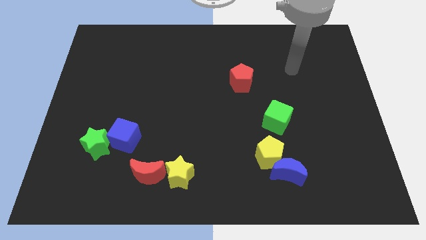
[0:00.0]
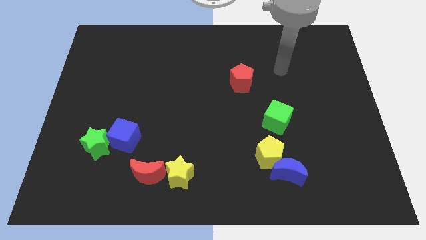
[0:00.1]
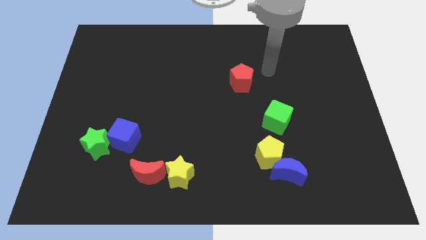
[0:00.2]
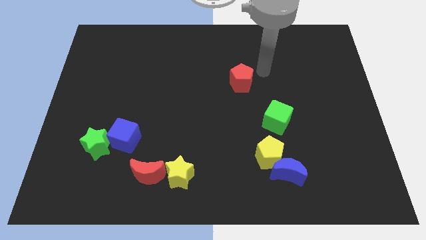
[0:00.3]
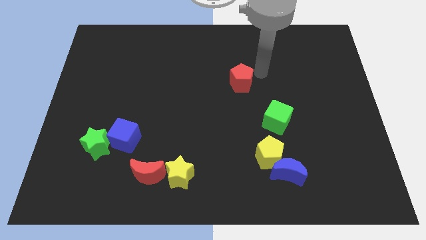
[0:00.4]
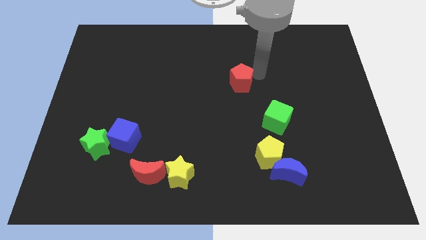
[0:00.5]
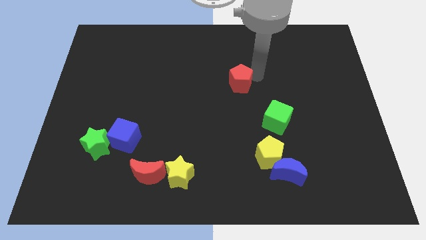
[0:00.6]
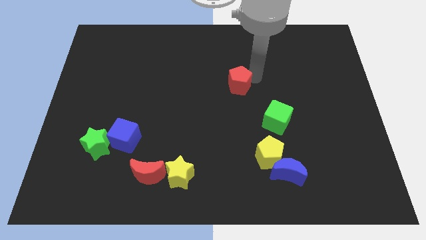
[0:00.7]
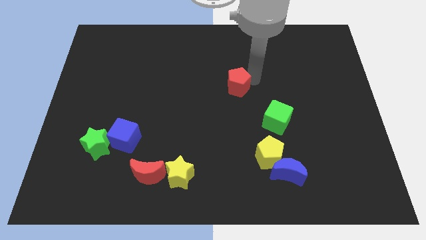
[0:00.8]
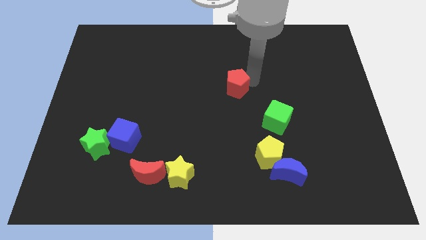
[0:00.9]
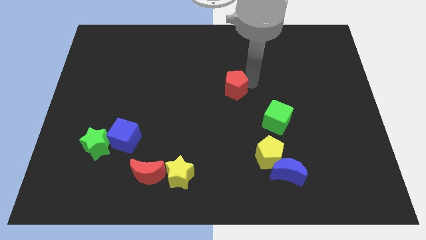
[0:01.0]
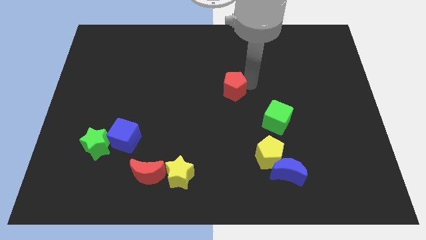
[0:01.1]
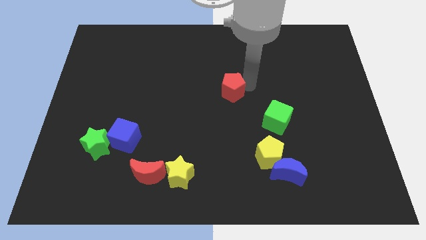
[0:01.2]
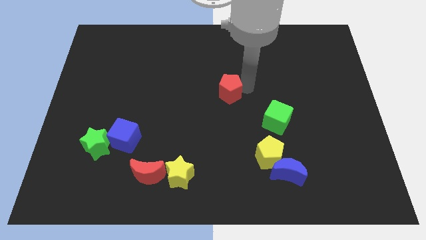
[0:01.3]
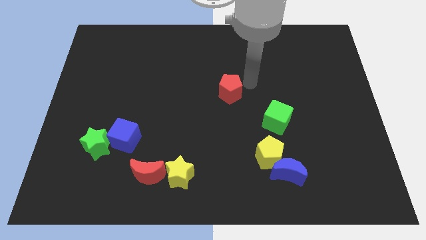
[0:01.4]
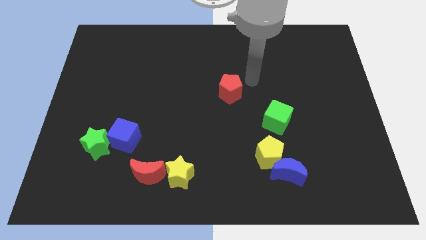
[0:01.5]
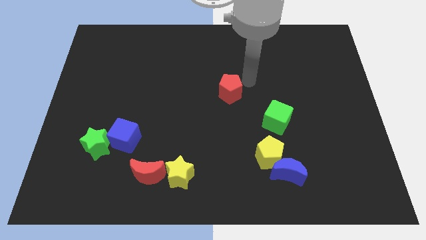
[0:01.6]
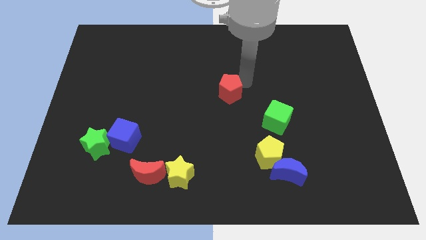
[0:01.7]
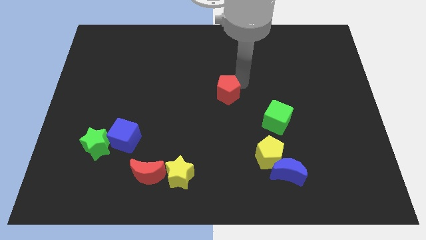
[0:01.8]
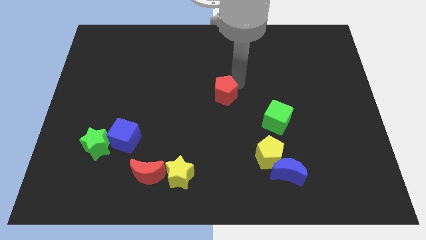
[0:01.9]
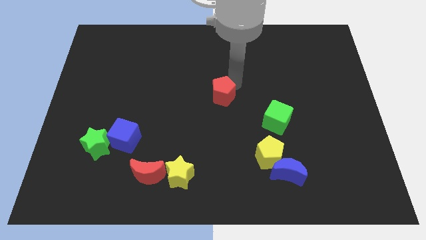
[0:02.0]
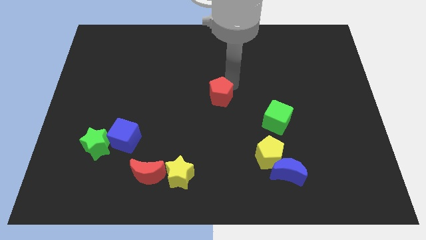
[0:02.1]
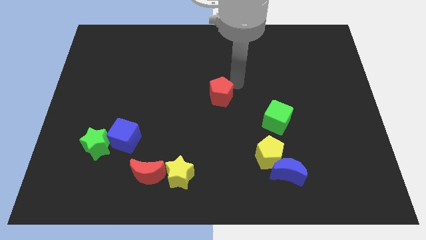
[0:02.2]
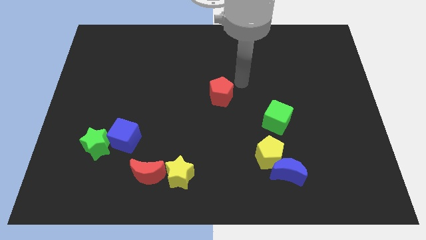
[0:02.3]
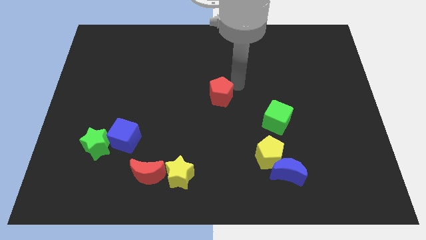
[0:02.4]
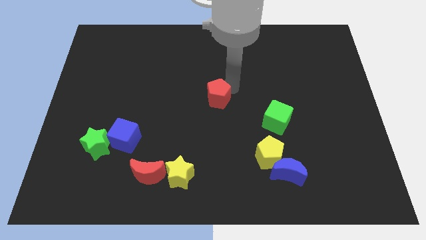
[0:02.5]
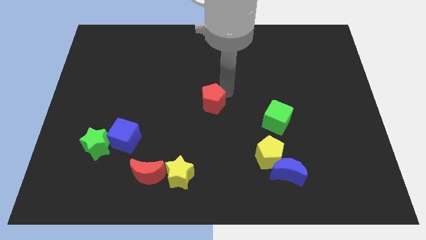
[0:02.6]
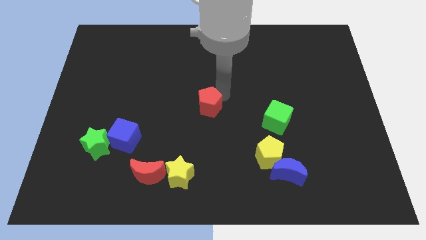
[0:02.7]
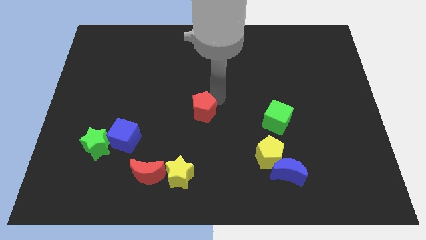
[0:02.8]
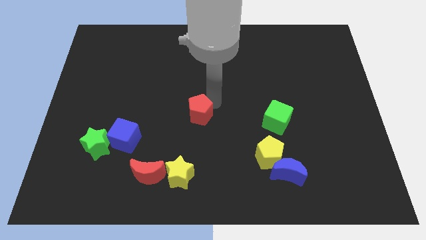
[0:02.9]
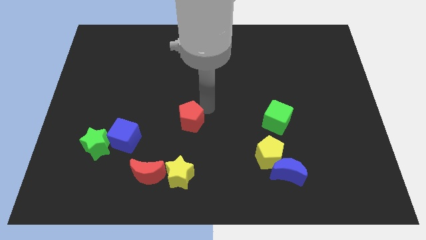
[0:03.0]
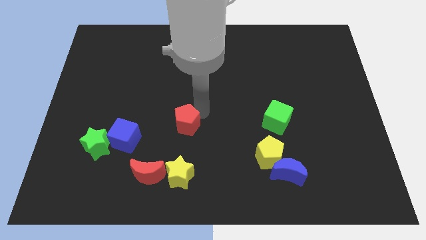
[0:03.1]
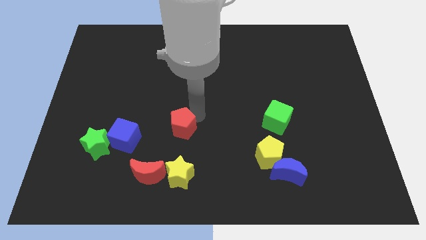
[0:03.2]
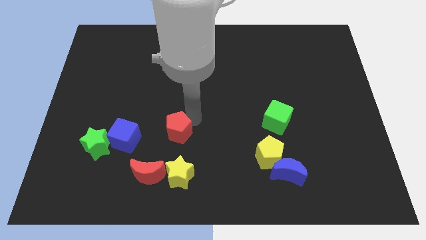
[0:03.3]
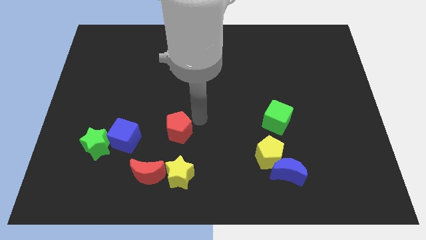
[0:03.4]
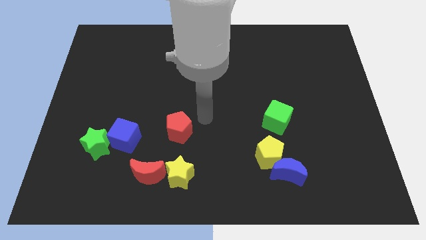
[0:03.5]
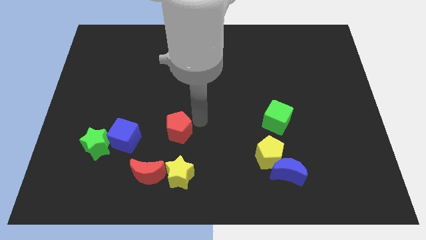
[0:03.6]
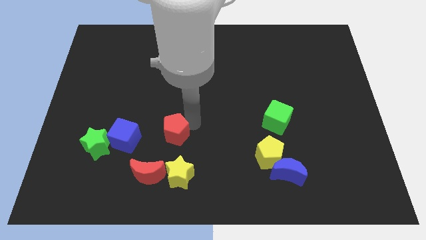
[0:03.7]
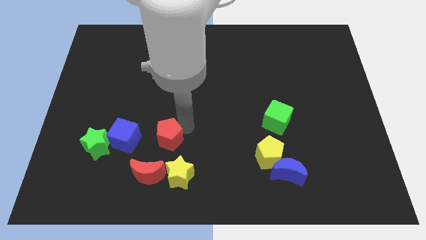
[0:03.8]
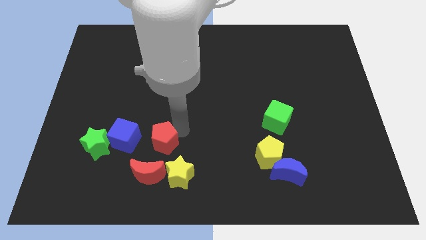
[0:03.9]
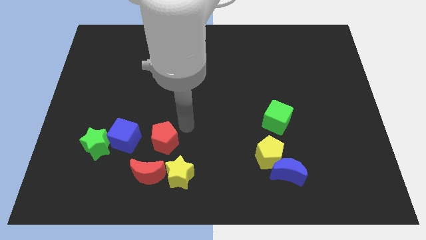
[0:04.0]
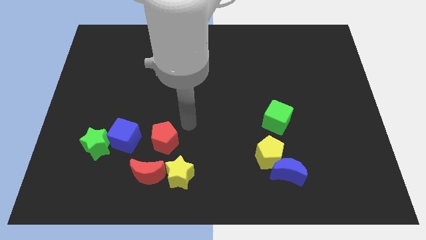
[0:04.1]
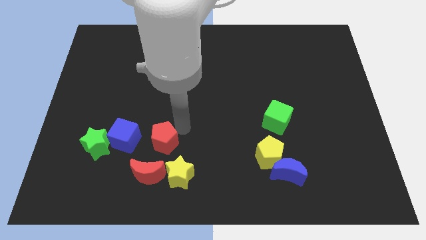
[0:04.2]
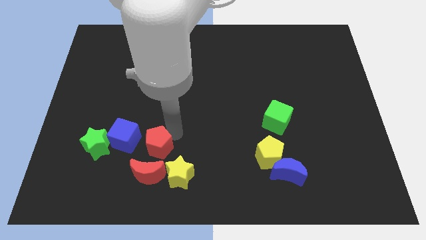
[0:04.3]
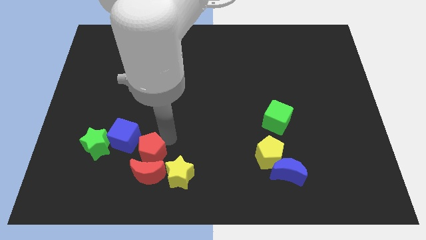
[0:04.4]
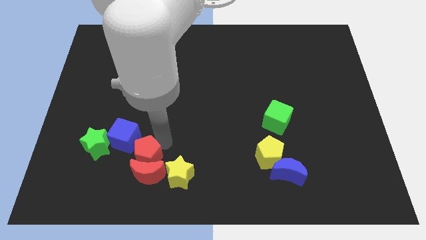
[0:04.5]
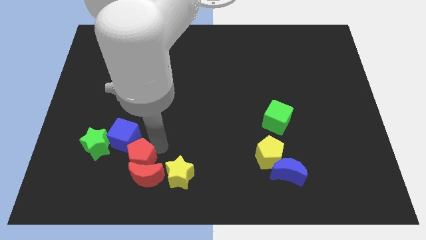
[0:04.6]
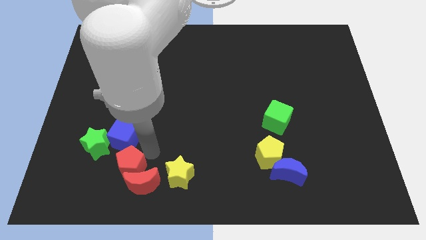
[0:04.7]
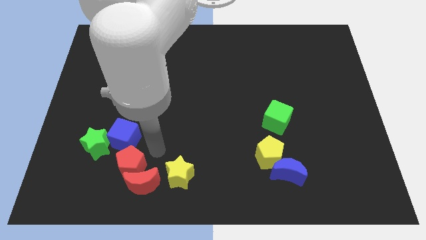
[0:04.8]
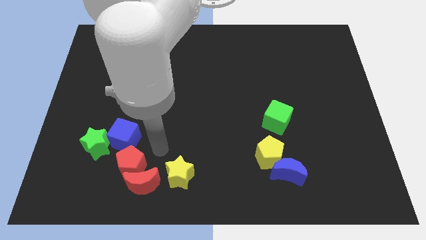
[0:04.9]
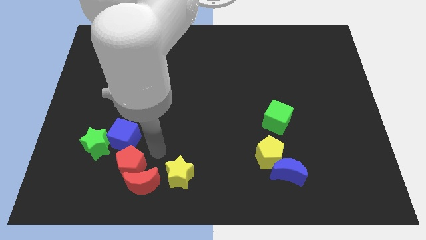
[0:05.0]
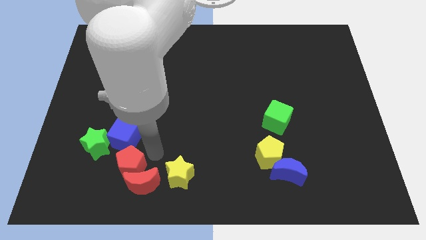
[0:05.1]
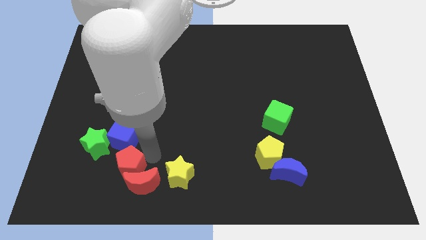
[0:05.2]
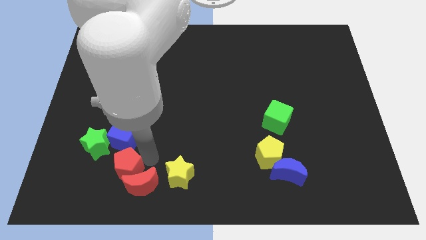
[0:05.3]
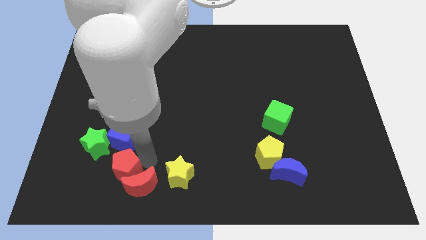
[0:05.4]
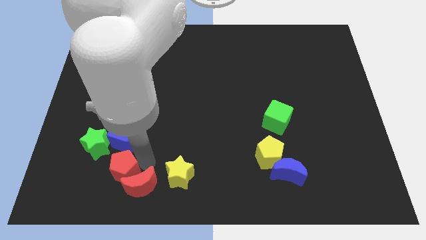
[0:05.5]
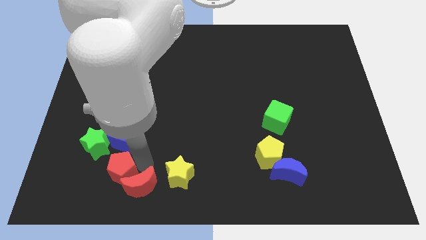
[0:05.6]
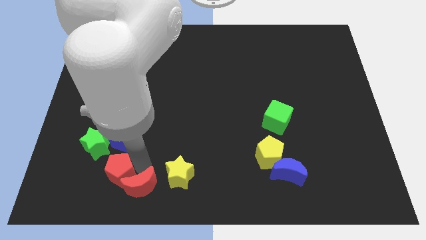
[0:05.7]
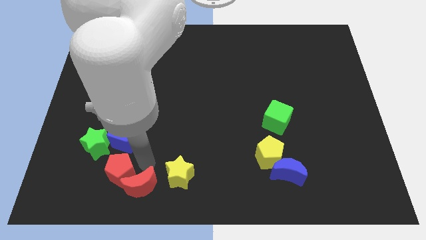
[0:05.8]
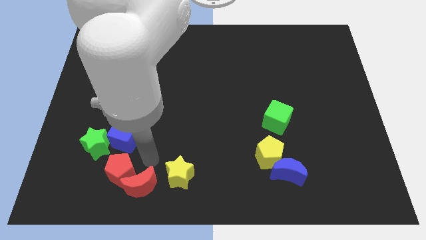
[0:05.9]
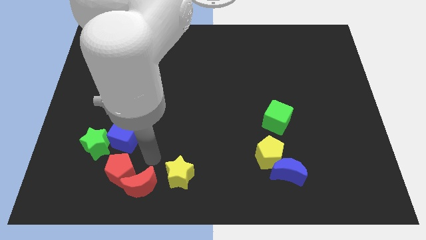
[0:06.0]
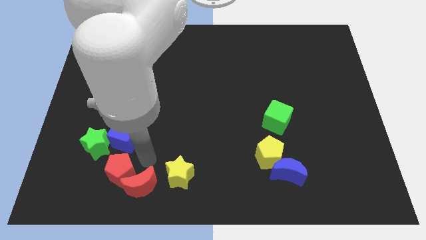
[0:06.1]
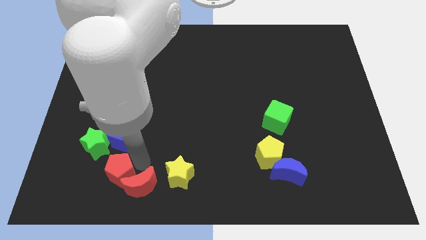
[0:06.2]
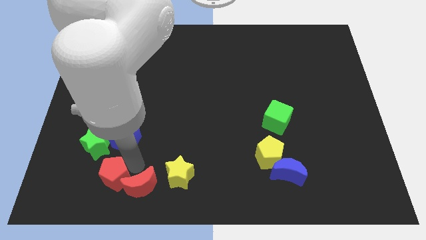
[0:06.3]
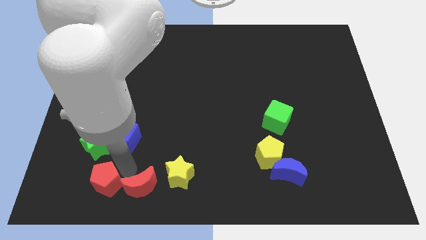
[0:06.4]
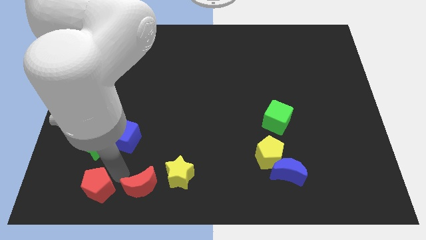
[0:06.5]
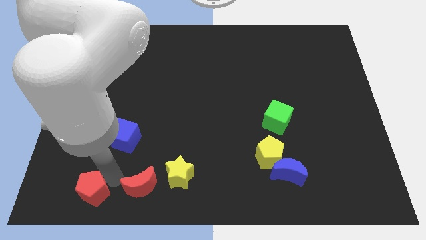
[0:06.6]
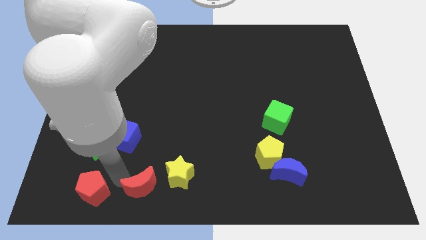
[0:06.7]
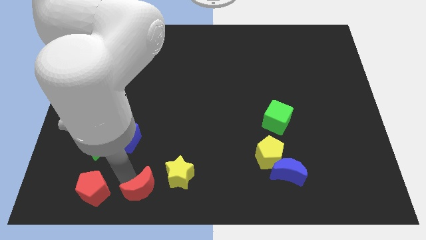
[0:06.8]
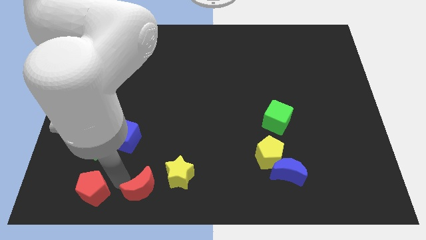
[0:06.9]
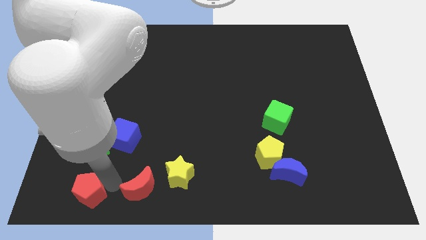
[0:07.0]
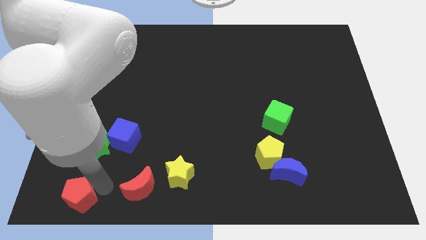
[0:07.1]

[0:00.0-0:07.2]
put the red pentagon to the lower left corner

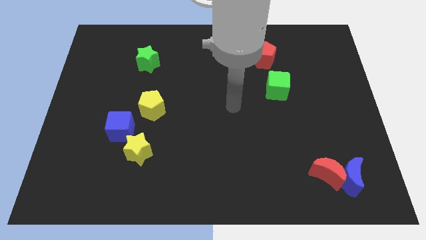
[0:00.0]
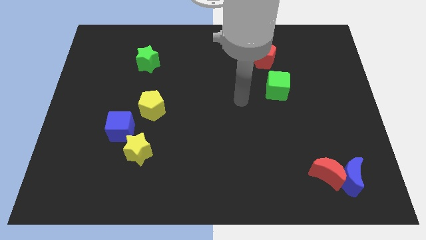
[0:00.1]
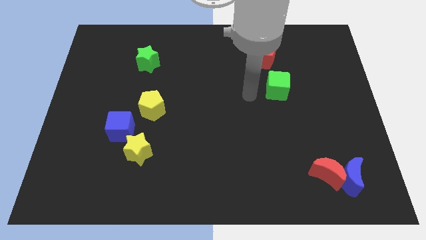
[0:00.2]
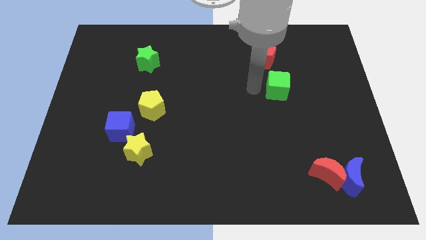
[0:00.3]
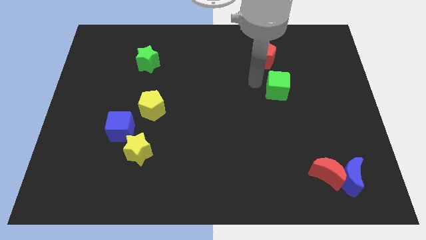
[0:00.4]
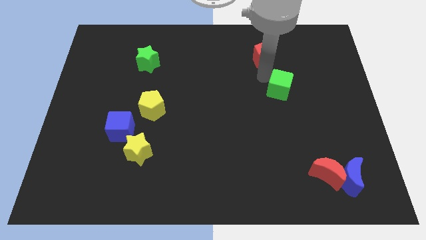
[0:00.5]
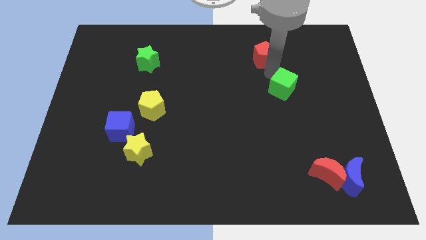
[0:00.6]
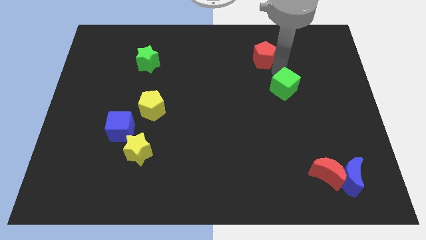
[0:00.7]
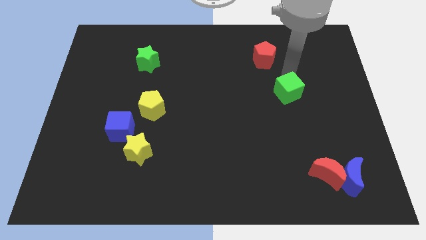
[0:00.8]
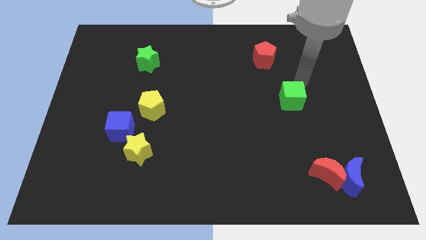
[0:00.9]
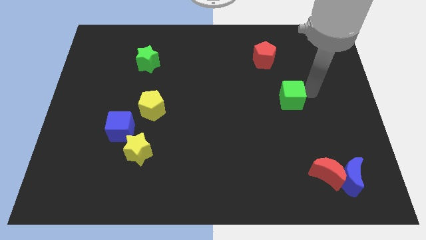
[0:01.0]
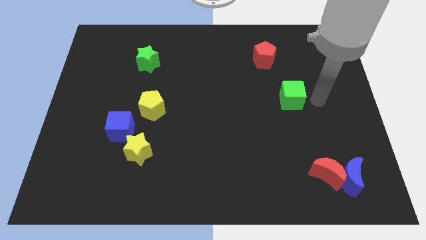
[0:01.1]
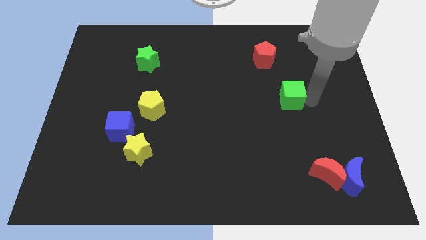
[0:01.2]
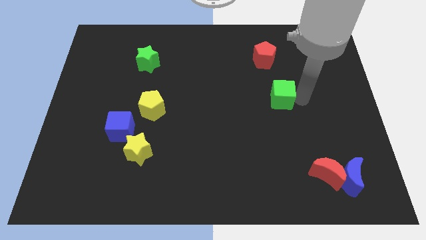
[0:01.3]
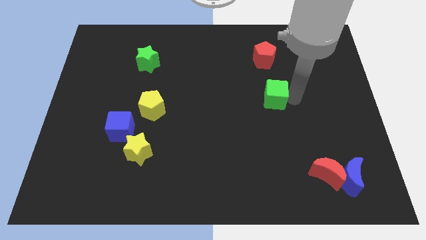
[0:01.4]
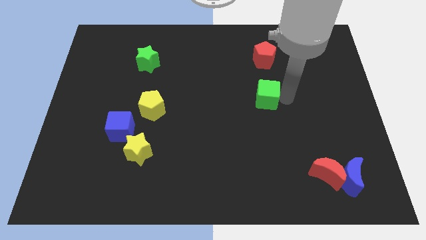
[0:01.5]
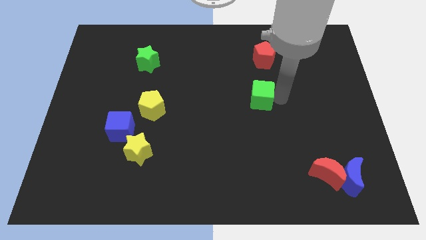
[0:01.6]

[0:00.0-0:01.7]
push the green cube to the center
